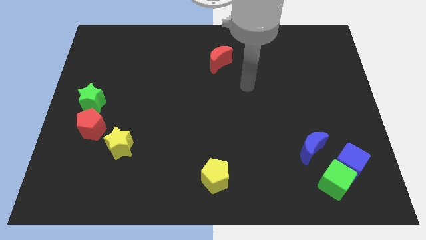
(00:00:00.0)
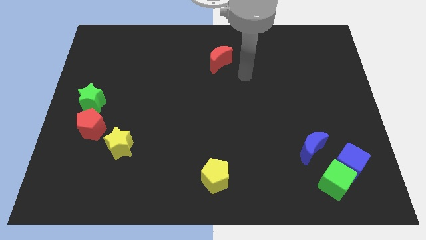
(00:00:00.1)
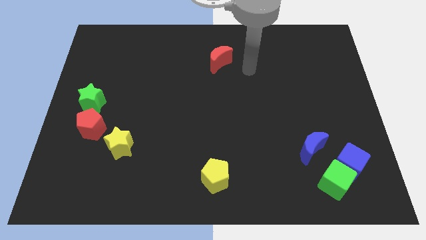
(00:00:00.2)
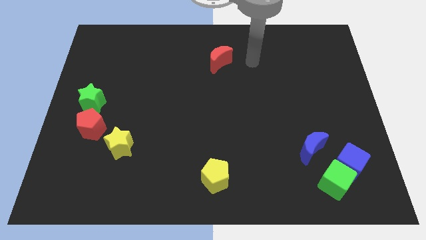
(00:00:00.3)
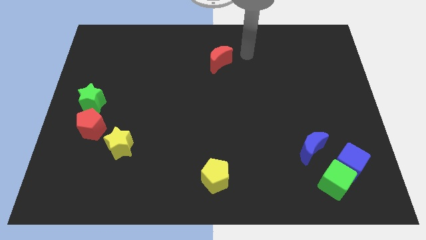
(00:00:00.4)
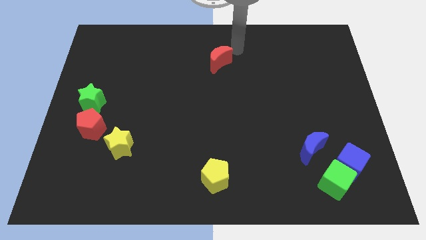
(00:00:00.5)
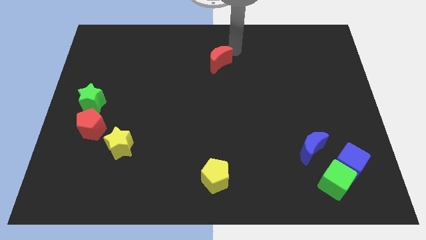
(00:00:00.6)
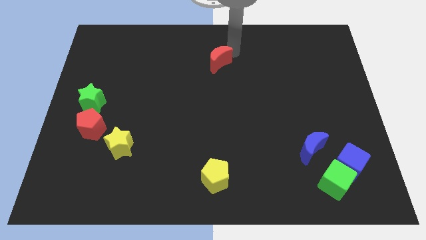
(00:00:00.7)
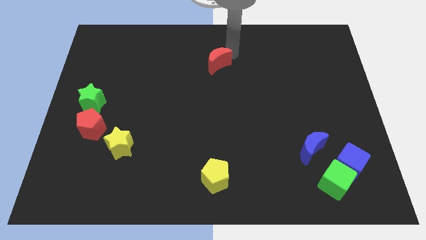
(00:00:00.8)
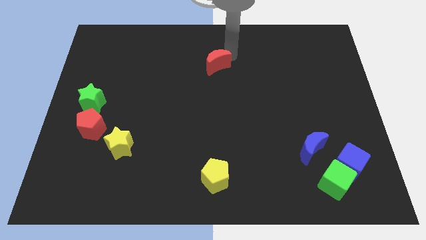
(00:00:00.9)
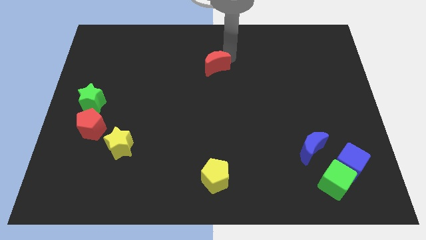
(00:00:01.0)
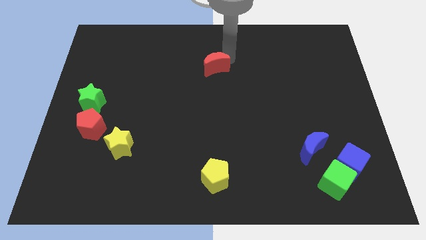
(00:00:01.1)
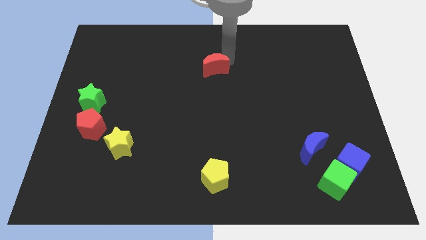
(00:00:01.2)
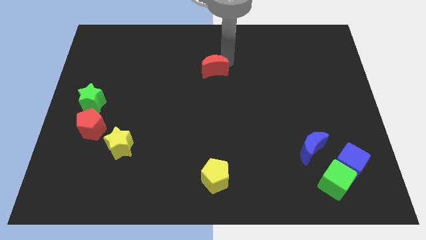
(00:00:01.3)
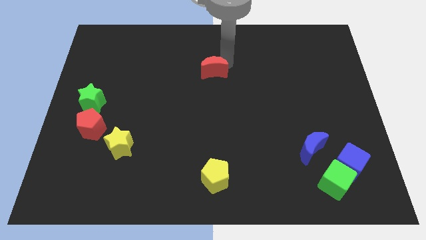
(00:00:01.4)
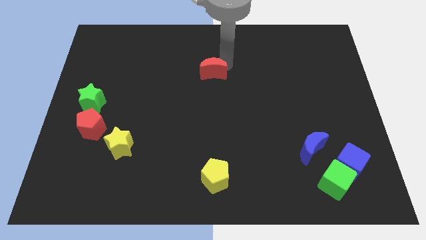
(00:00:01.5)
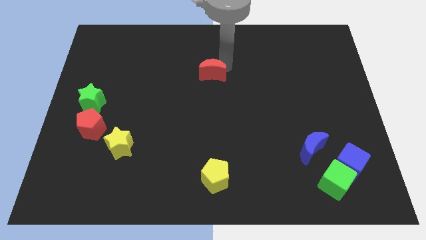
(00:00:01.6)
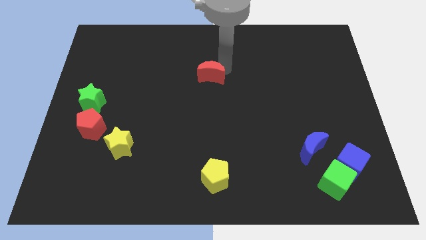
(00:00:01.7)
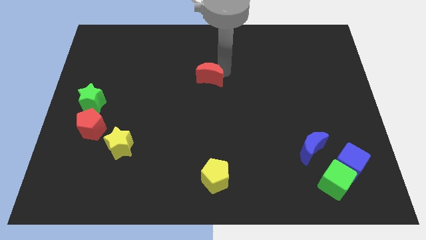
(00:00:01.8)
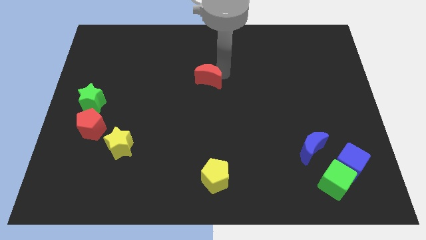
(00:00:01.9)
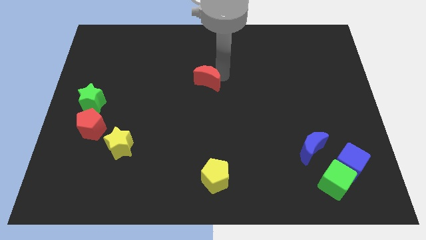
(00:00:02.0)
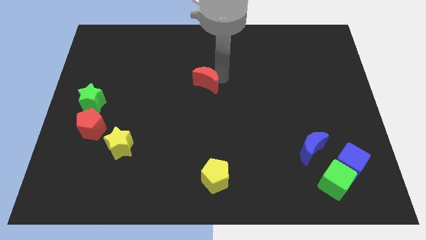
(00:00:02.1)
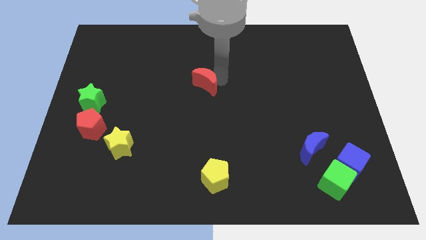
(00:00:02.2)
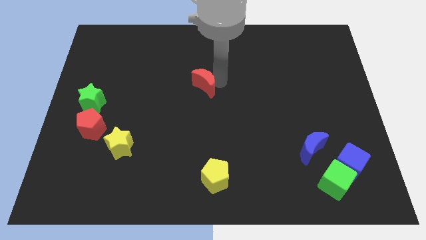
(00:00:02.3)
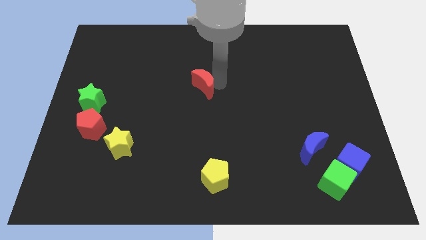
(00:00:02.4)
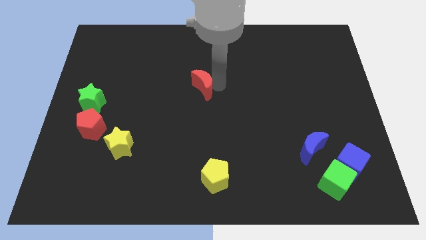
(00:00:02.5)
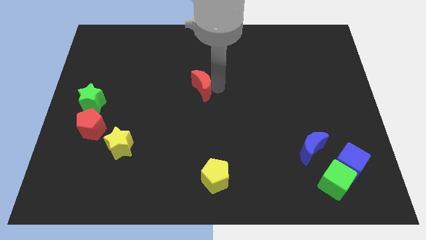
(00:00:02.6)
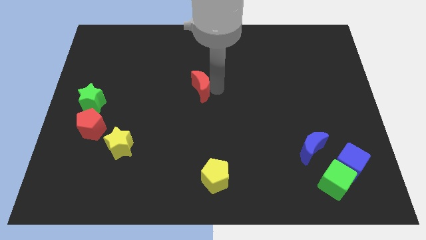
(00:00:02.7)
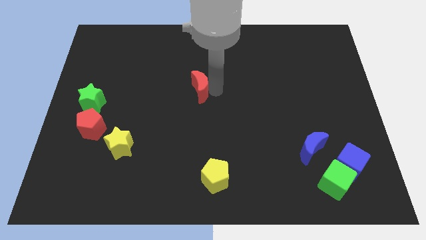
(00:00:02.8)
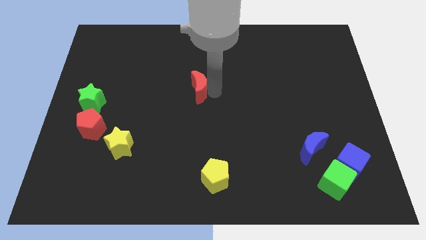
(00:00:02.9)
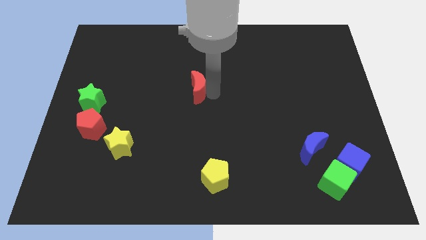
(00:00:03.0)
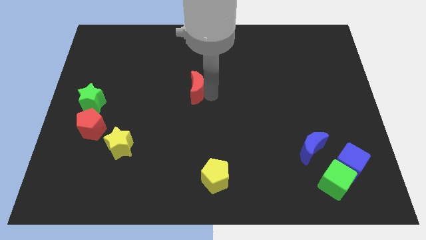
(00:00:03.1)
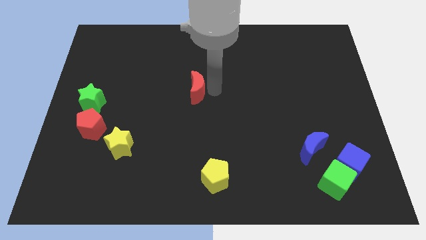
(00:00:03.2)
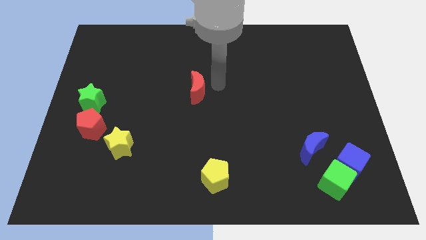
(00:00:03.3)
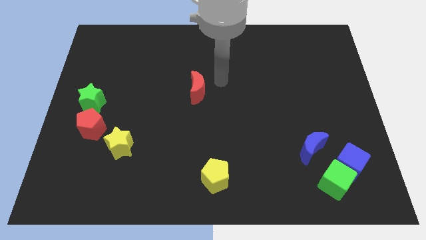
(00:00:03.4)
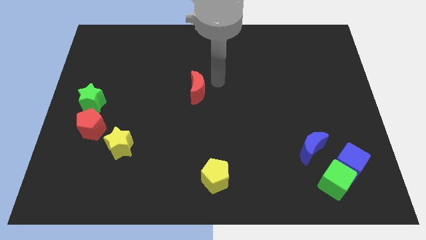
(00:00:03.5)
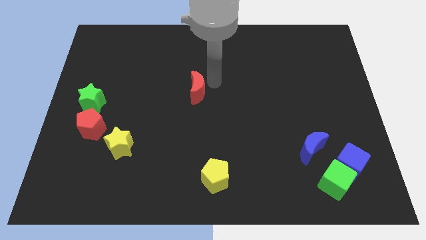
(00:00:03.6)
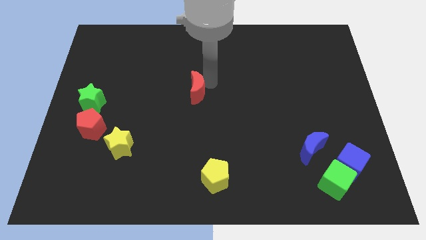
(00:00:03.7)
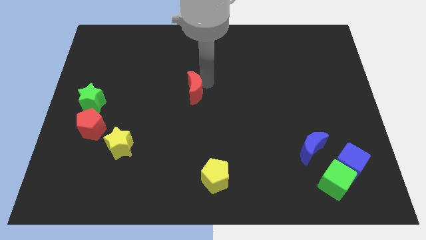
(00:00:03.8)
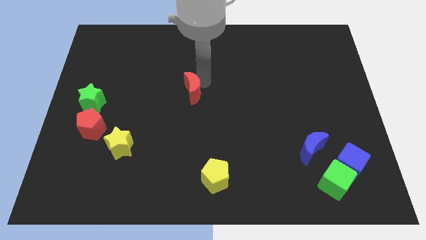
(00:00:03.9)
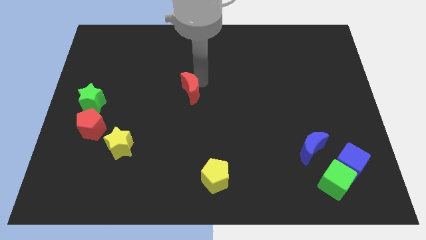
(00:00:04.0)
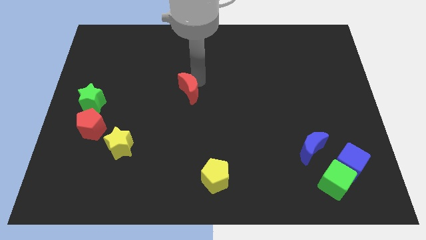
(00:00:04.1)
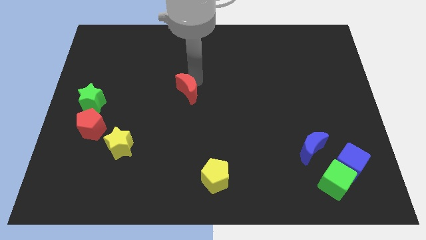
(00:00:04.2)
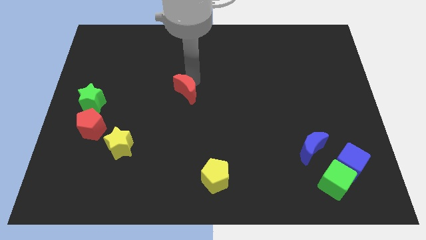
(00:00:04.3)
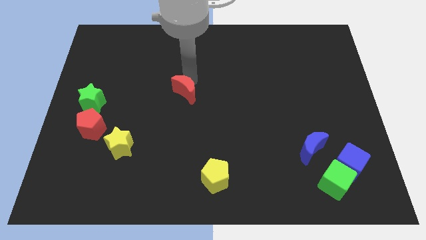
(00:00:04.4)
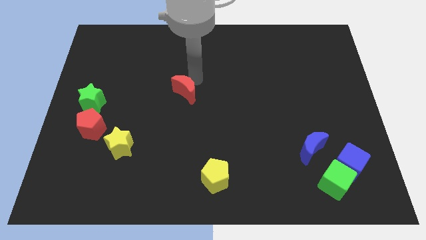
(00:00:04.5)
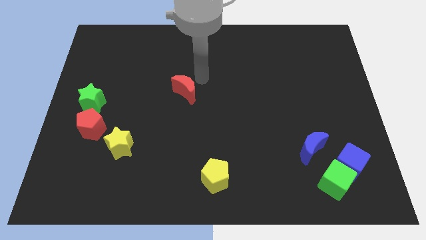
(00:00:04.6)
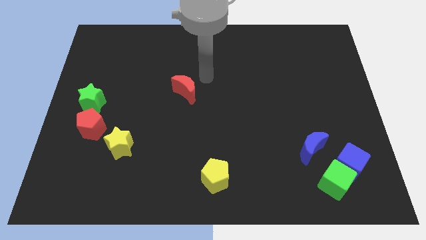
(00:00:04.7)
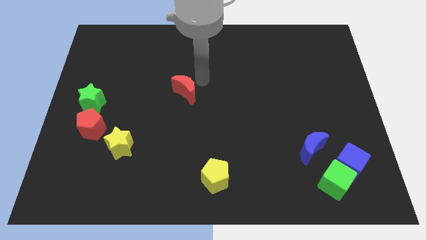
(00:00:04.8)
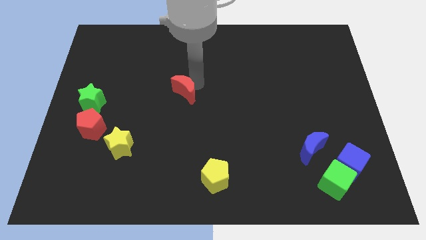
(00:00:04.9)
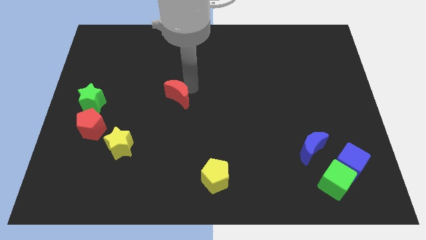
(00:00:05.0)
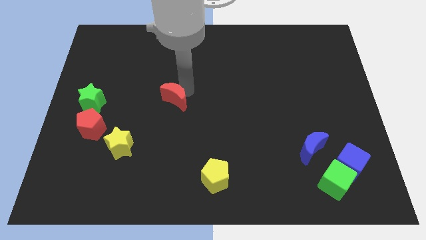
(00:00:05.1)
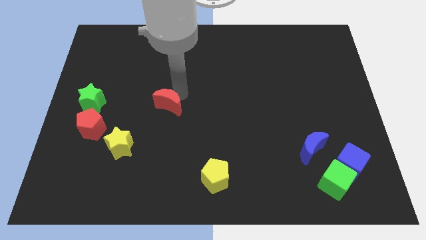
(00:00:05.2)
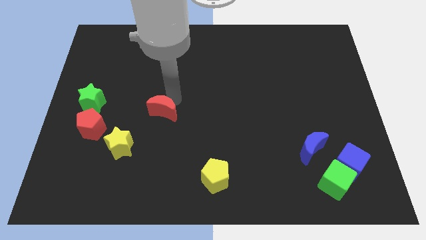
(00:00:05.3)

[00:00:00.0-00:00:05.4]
move the red moon to the top right side of the yellow star
